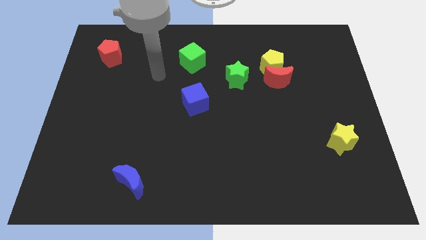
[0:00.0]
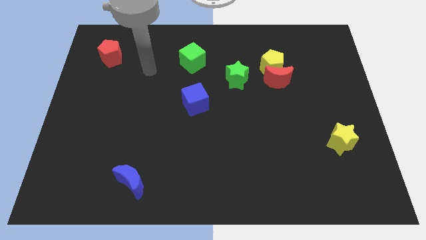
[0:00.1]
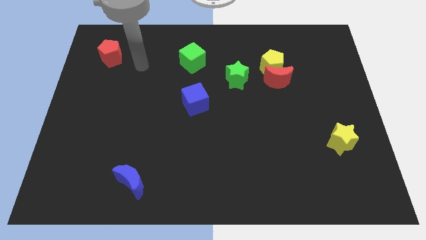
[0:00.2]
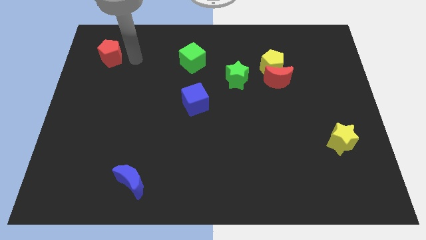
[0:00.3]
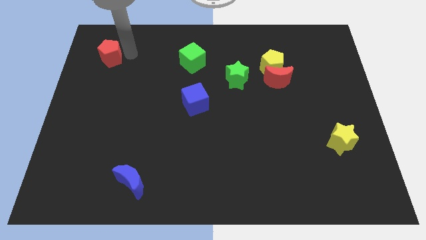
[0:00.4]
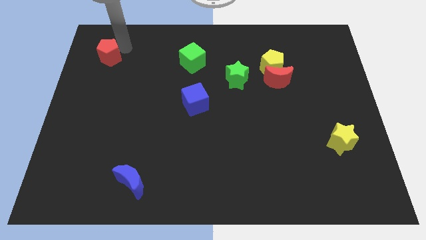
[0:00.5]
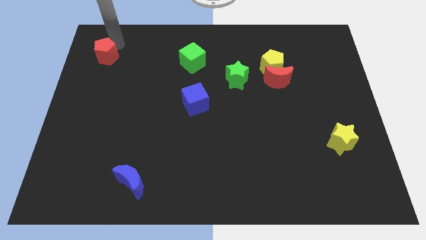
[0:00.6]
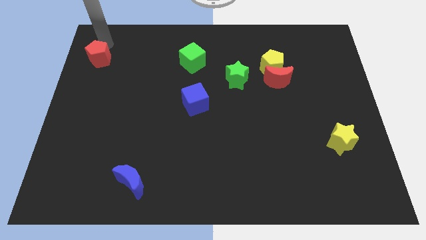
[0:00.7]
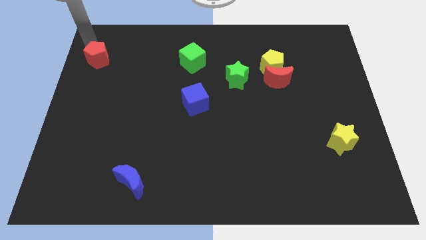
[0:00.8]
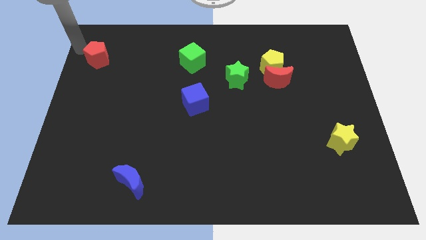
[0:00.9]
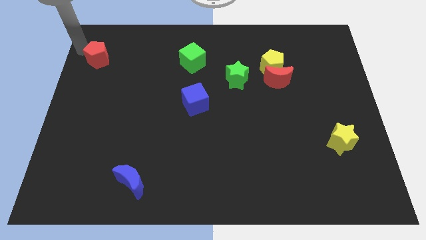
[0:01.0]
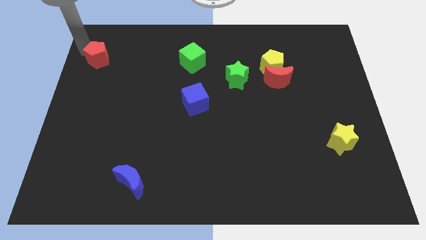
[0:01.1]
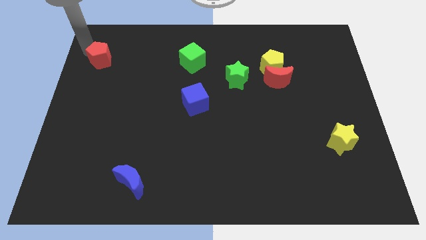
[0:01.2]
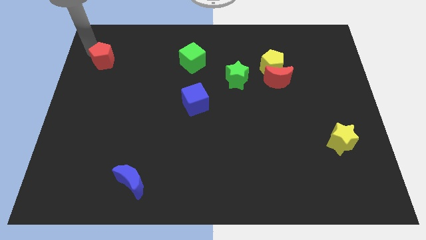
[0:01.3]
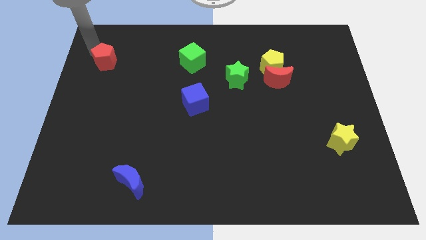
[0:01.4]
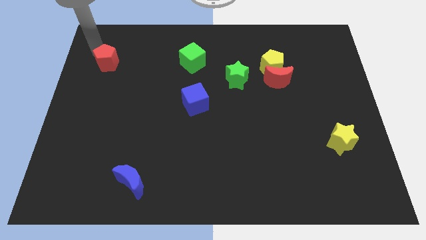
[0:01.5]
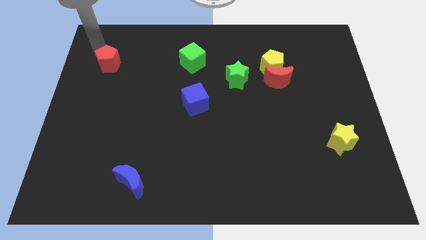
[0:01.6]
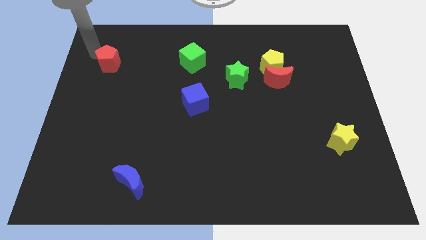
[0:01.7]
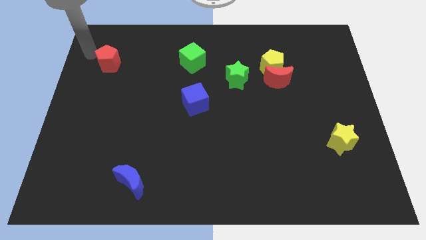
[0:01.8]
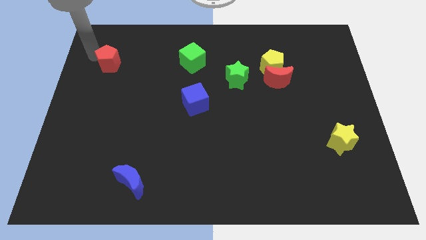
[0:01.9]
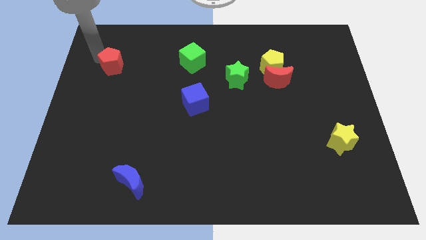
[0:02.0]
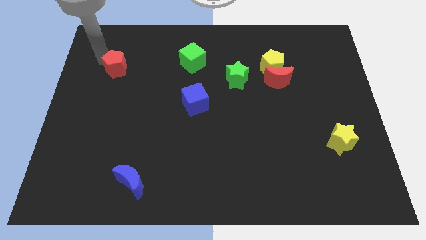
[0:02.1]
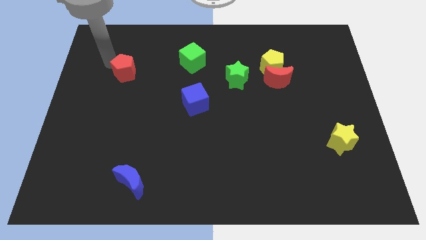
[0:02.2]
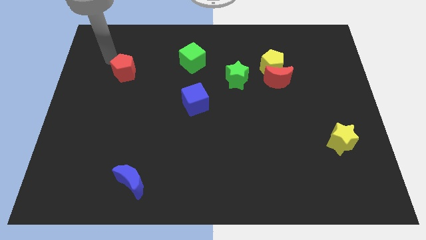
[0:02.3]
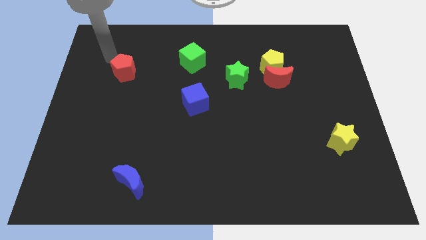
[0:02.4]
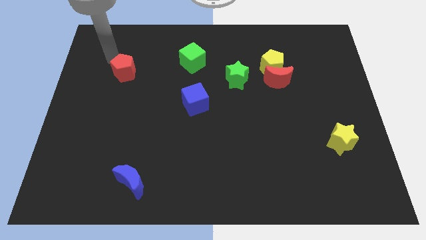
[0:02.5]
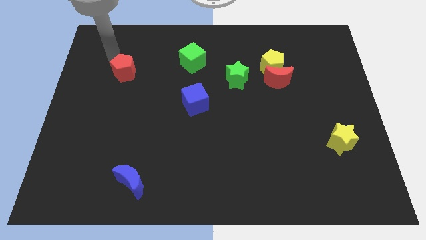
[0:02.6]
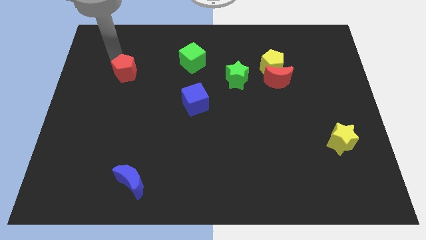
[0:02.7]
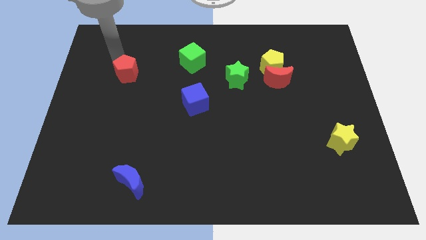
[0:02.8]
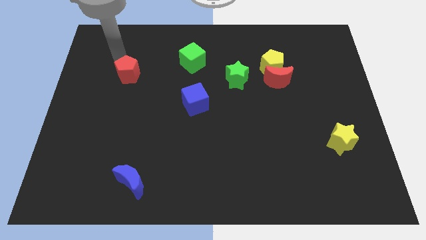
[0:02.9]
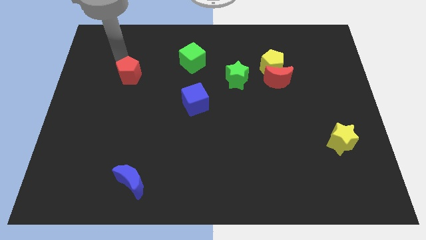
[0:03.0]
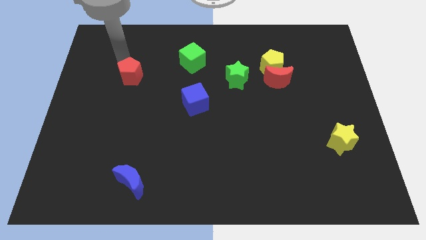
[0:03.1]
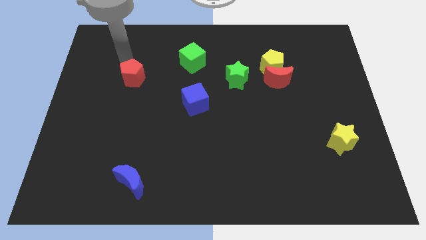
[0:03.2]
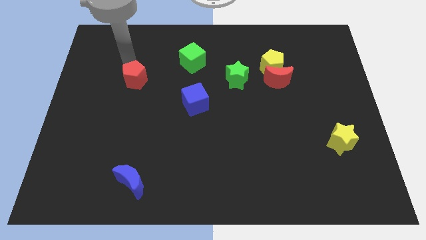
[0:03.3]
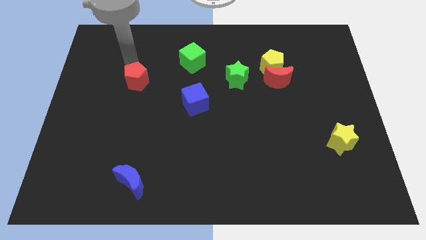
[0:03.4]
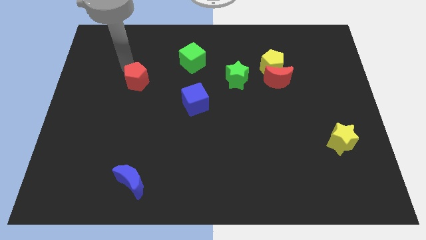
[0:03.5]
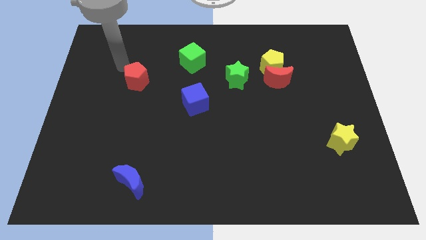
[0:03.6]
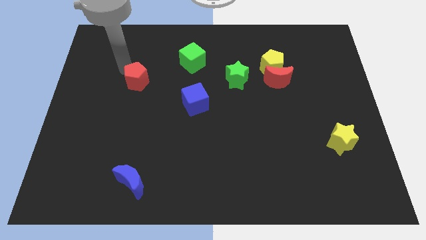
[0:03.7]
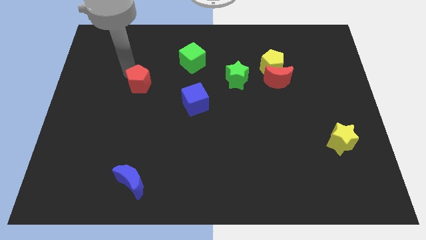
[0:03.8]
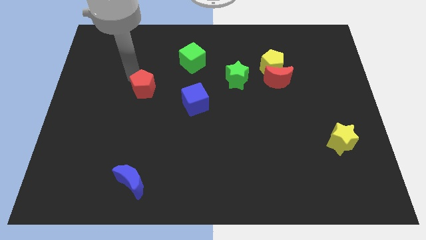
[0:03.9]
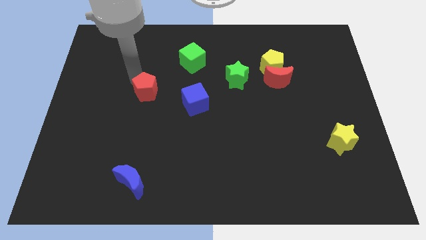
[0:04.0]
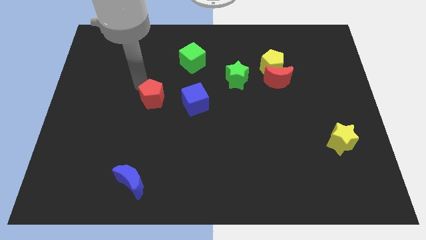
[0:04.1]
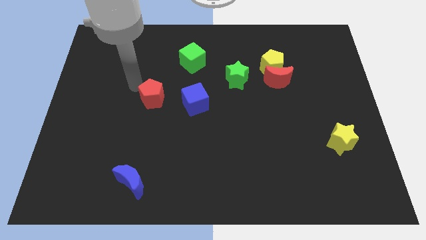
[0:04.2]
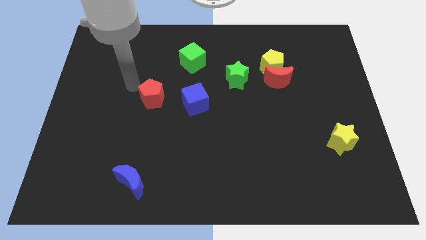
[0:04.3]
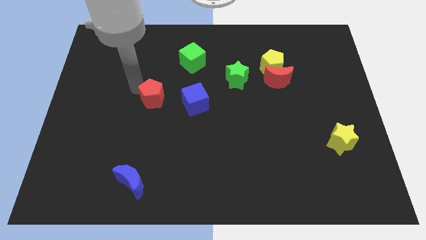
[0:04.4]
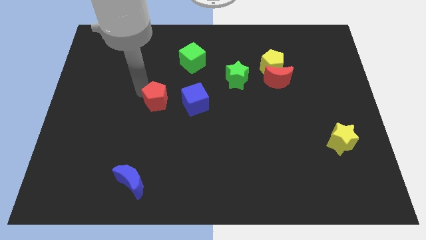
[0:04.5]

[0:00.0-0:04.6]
move the red pentagon downwards and then to the right

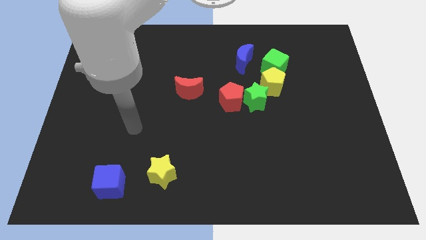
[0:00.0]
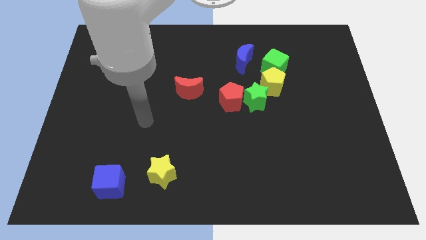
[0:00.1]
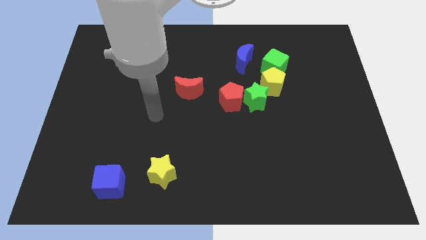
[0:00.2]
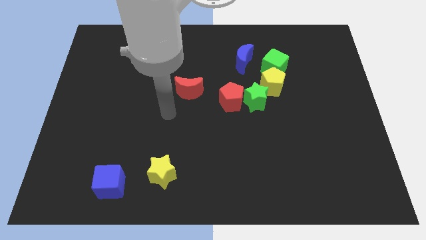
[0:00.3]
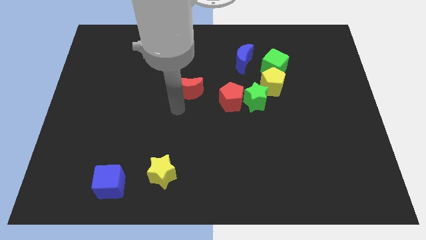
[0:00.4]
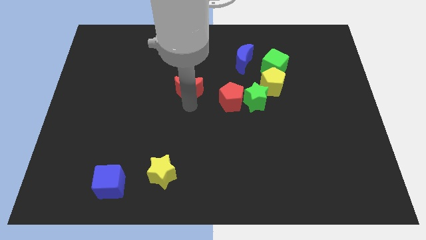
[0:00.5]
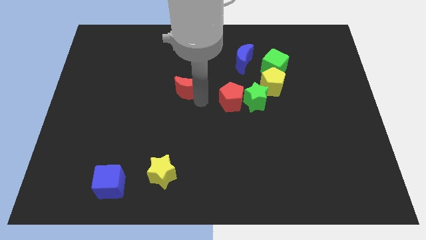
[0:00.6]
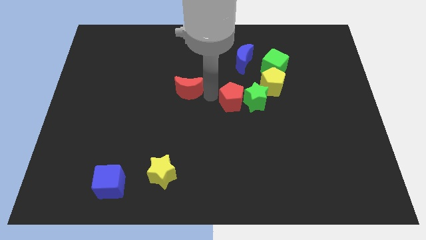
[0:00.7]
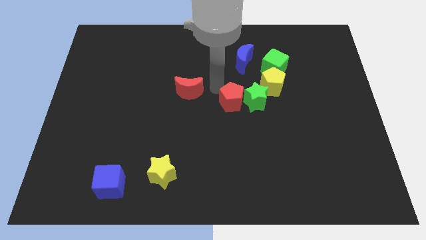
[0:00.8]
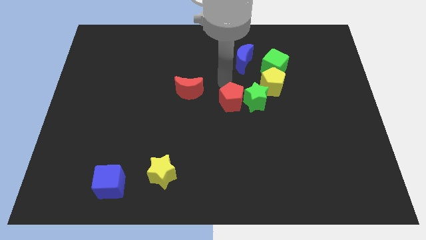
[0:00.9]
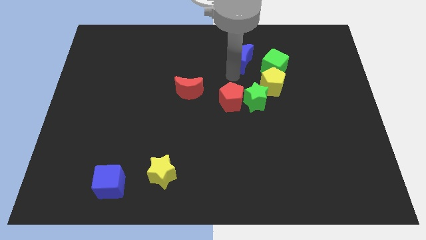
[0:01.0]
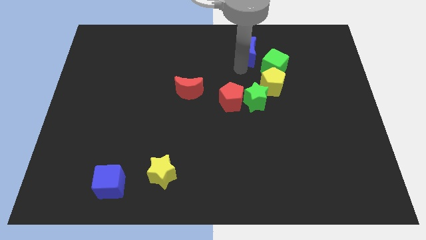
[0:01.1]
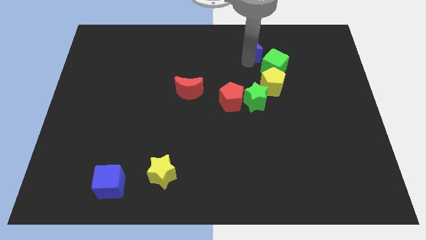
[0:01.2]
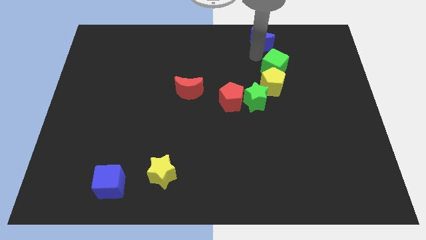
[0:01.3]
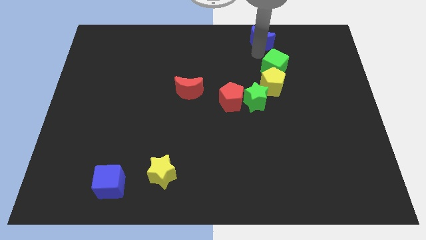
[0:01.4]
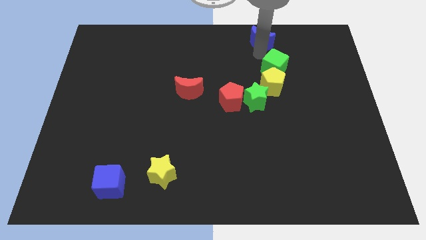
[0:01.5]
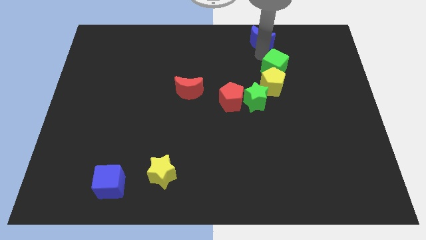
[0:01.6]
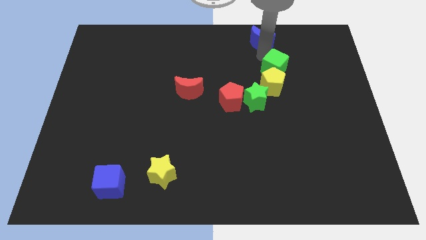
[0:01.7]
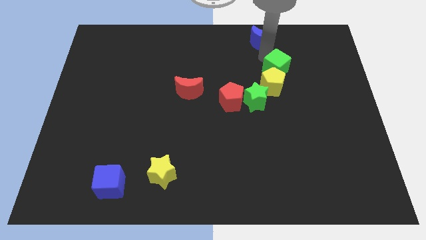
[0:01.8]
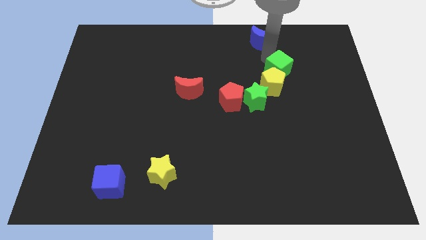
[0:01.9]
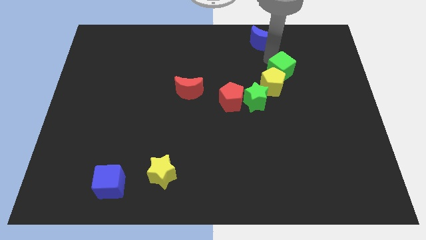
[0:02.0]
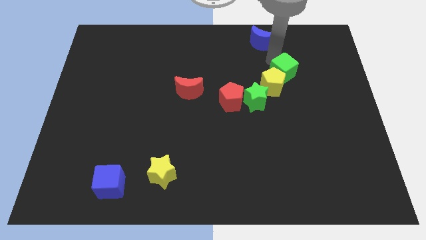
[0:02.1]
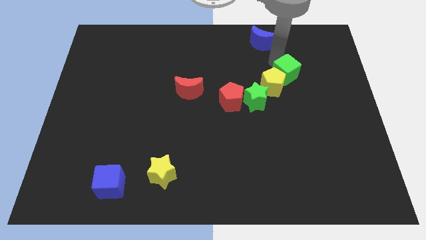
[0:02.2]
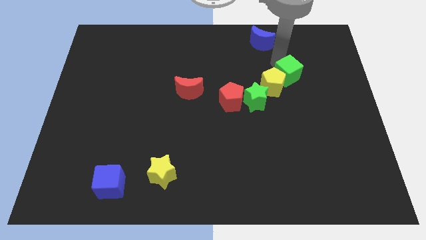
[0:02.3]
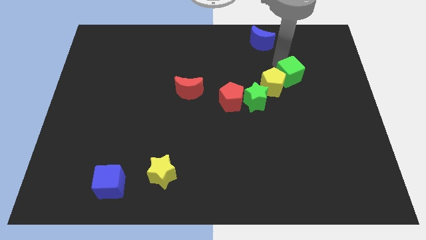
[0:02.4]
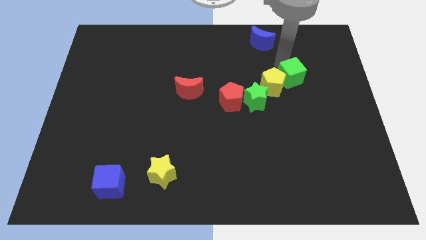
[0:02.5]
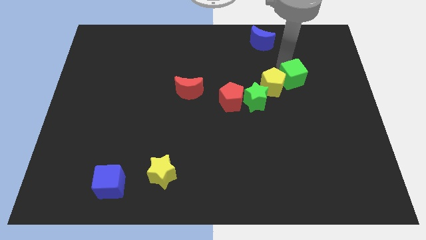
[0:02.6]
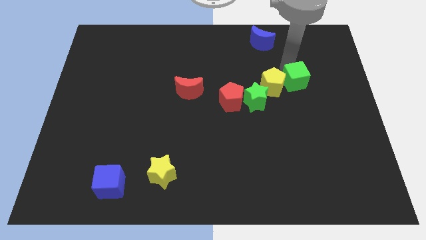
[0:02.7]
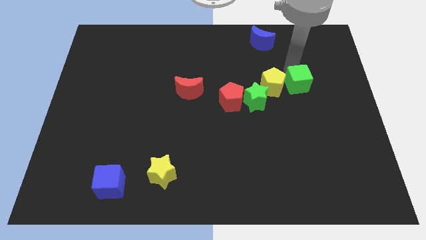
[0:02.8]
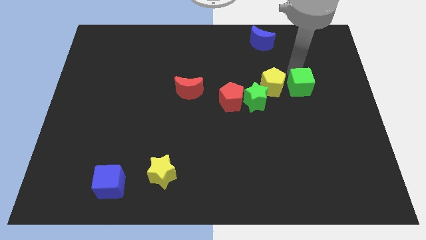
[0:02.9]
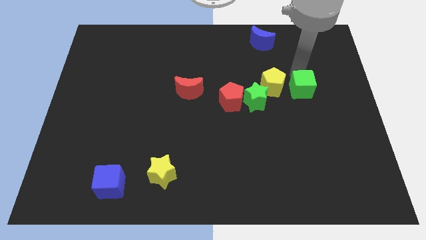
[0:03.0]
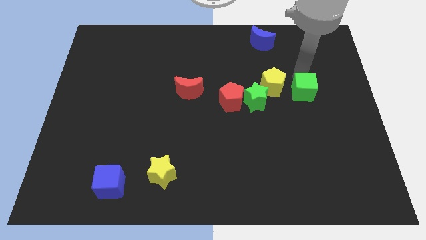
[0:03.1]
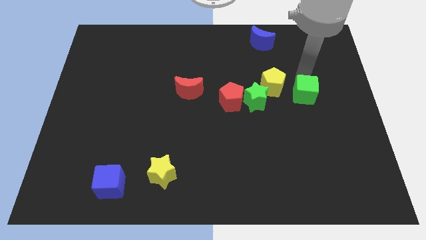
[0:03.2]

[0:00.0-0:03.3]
push the green cube slightly downwards

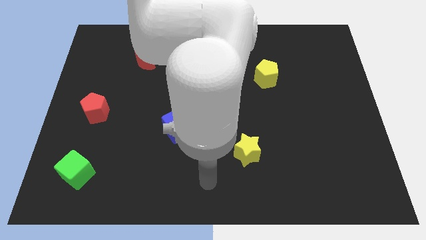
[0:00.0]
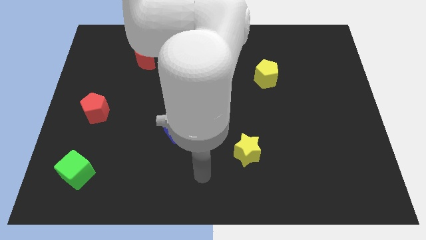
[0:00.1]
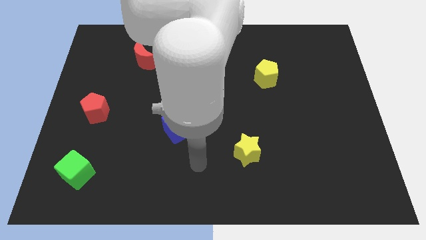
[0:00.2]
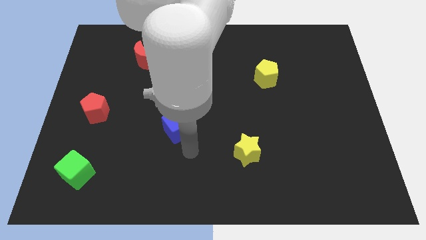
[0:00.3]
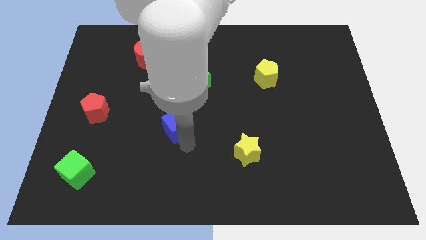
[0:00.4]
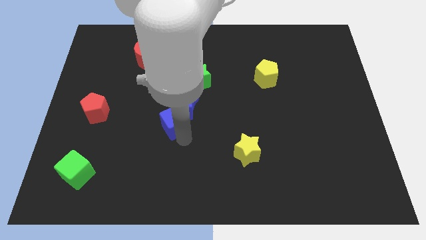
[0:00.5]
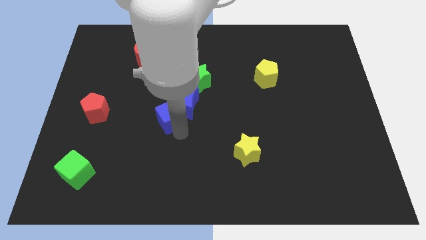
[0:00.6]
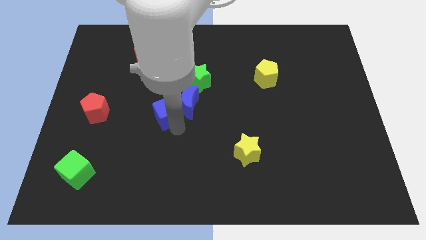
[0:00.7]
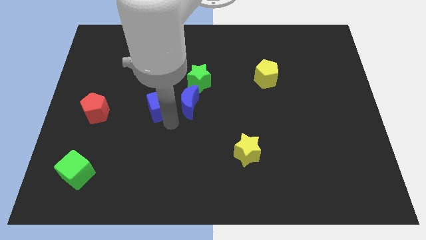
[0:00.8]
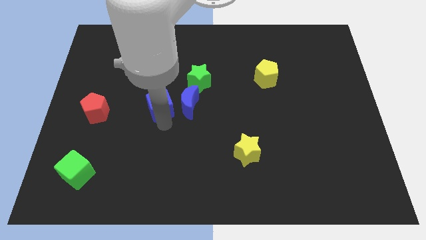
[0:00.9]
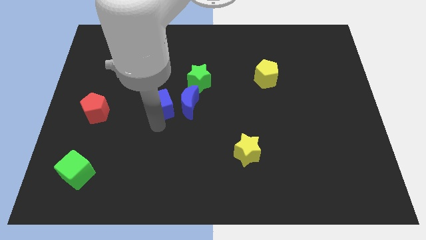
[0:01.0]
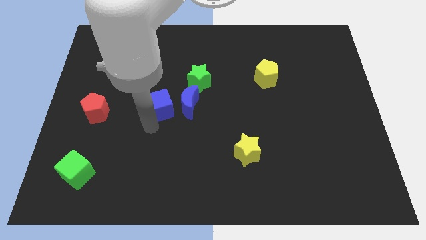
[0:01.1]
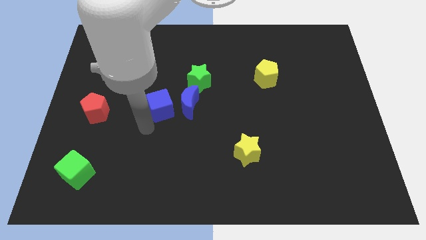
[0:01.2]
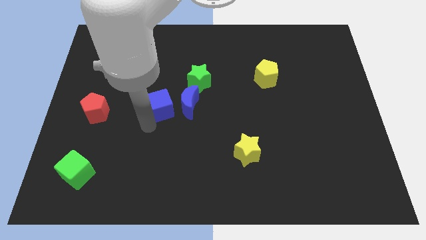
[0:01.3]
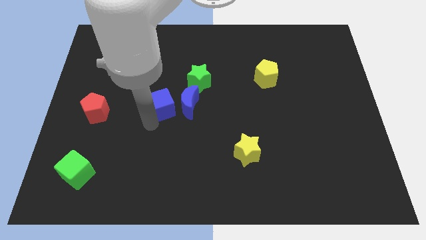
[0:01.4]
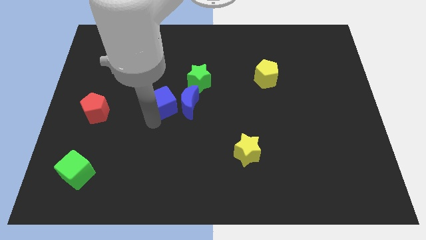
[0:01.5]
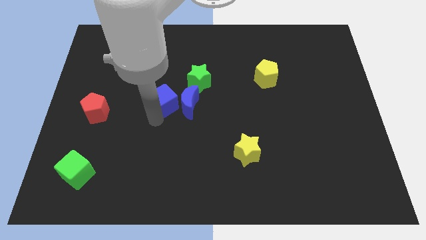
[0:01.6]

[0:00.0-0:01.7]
push the blue cube a bit up
